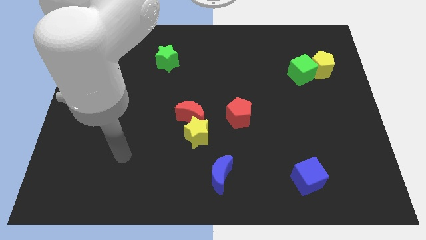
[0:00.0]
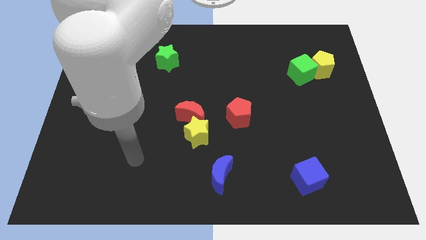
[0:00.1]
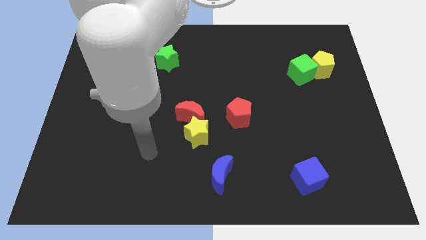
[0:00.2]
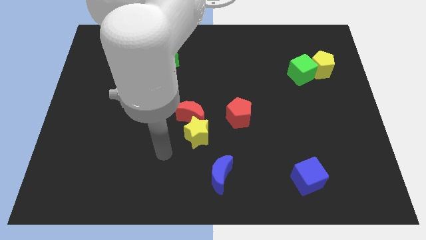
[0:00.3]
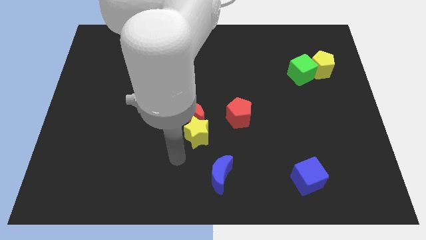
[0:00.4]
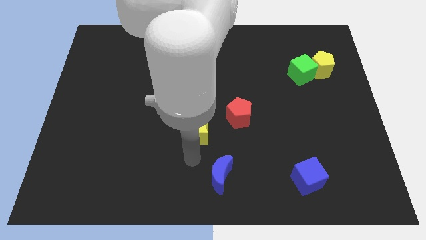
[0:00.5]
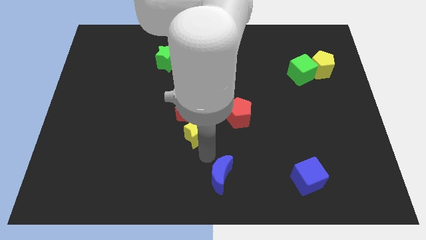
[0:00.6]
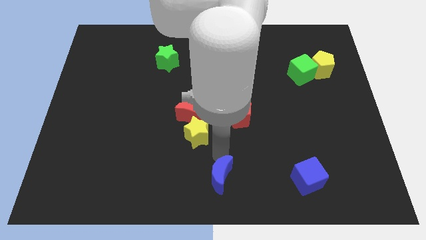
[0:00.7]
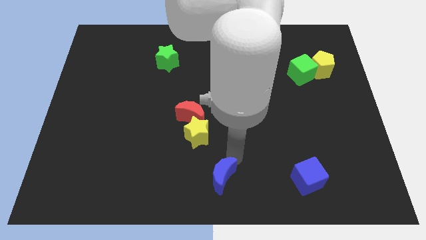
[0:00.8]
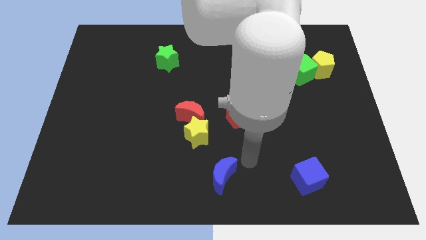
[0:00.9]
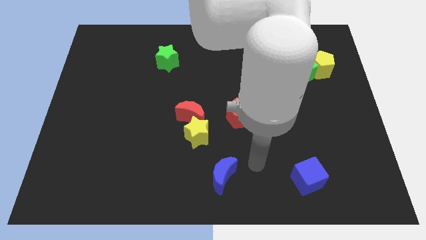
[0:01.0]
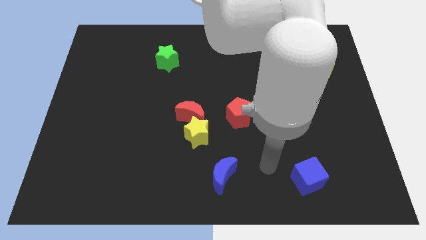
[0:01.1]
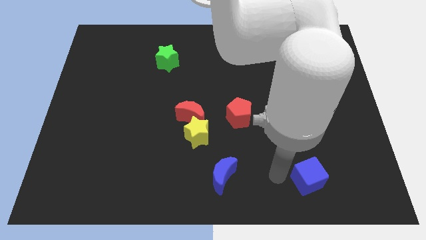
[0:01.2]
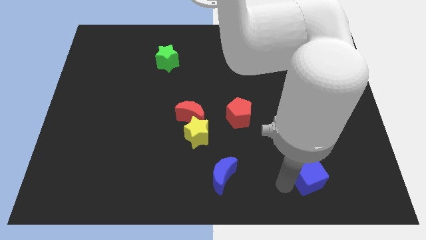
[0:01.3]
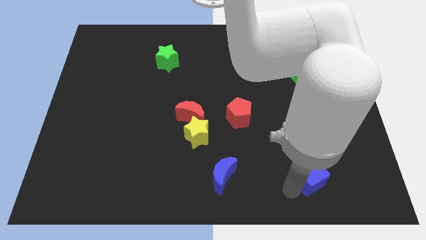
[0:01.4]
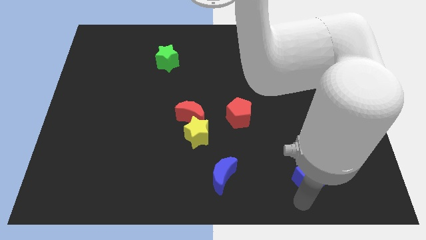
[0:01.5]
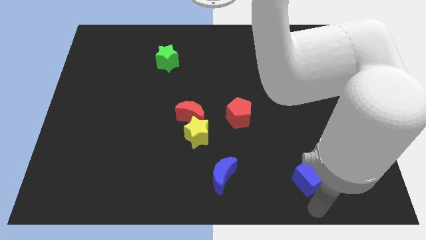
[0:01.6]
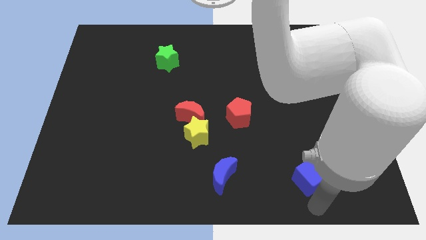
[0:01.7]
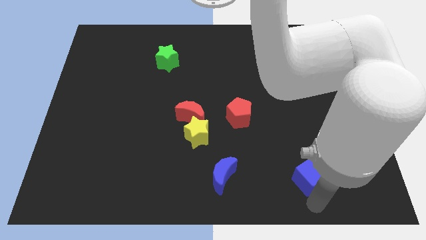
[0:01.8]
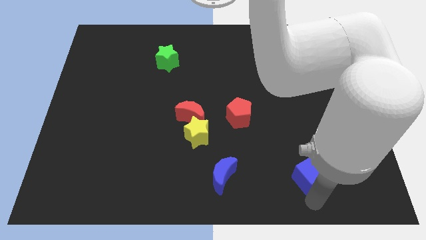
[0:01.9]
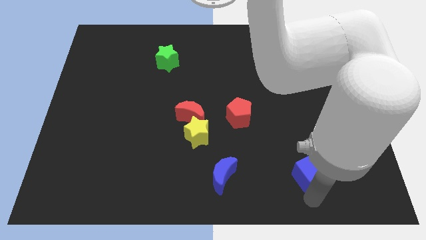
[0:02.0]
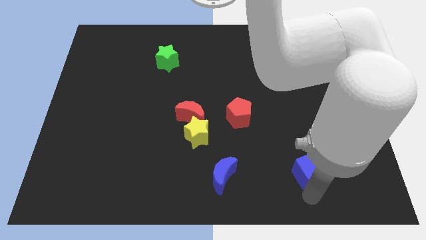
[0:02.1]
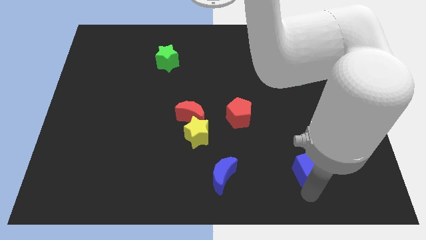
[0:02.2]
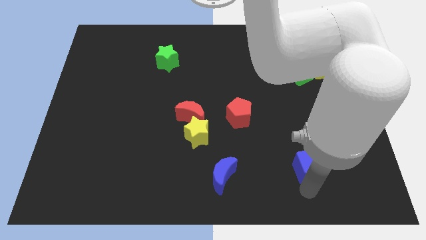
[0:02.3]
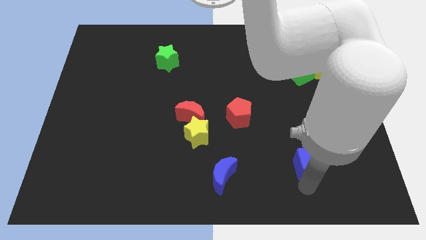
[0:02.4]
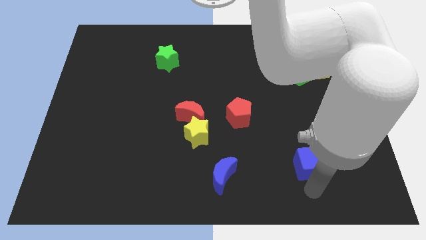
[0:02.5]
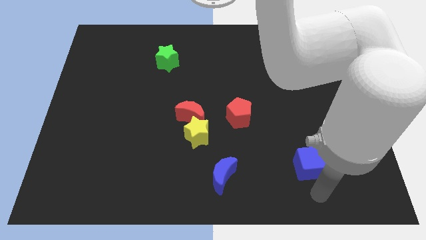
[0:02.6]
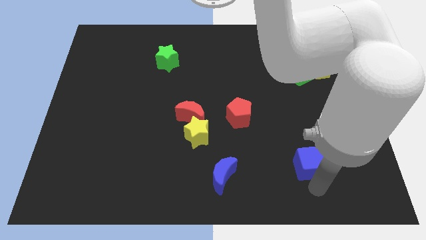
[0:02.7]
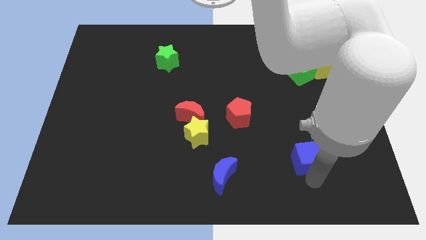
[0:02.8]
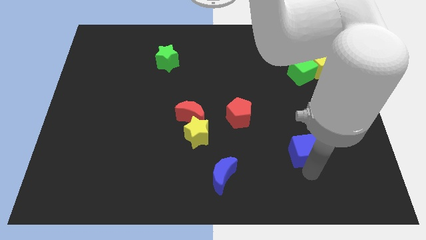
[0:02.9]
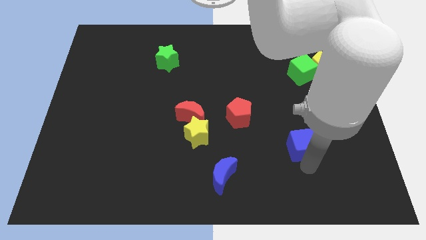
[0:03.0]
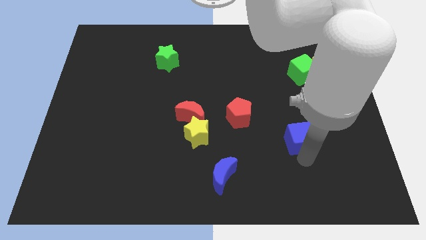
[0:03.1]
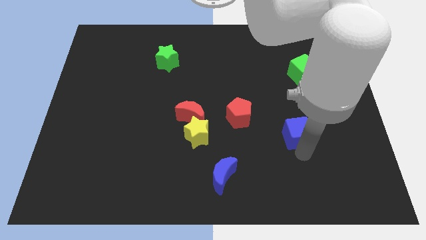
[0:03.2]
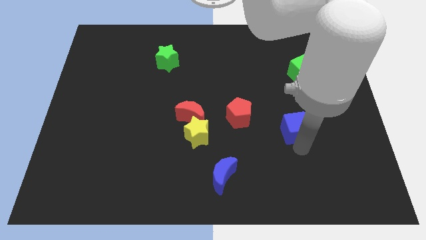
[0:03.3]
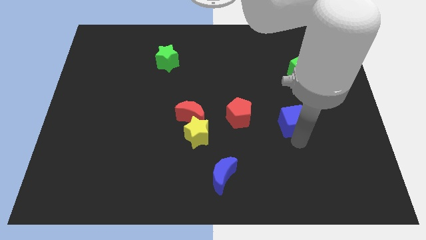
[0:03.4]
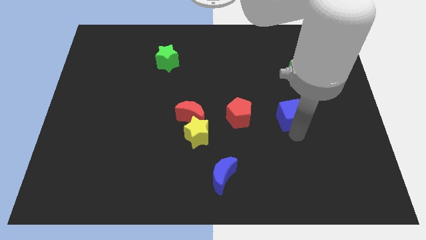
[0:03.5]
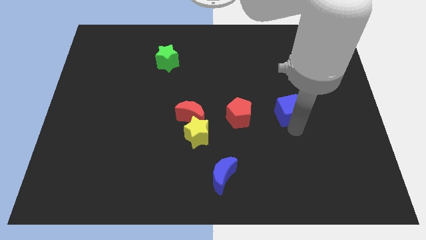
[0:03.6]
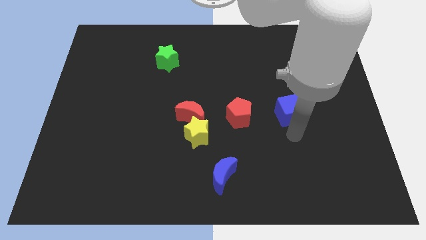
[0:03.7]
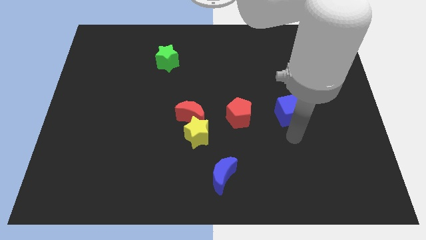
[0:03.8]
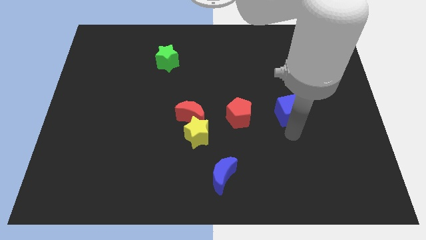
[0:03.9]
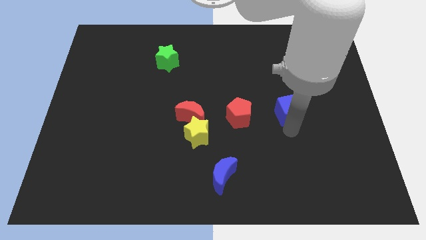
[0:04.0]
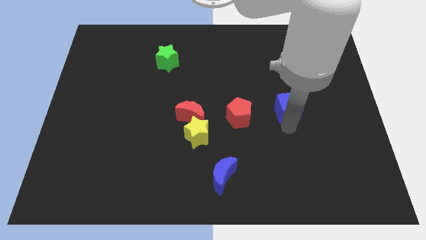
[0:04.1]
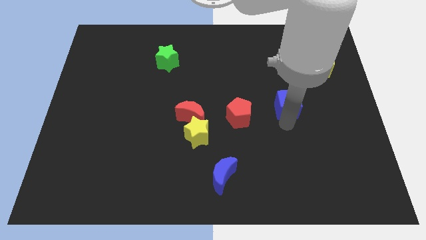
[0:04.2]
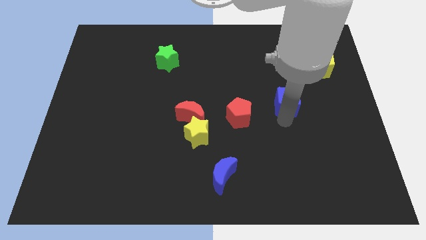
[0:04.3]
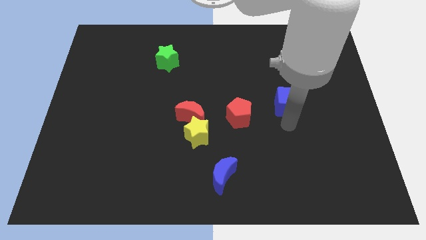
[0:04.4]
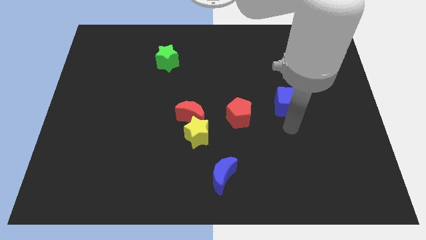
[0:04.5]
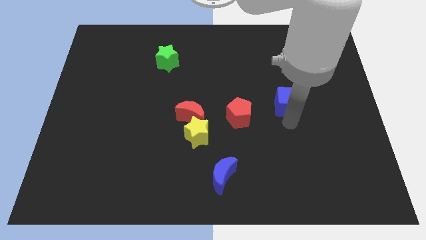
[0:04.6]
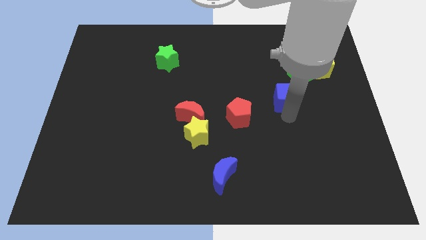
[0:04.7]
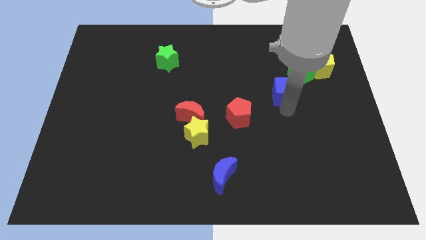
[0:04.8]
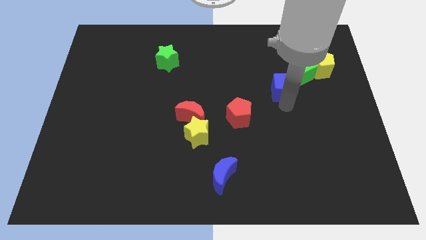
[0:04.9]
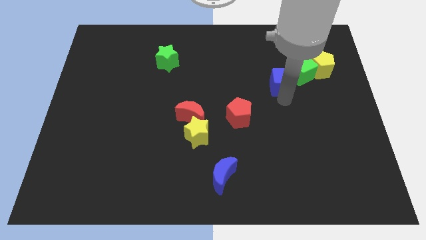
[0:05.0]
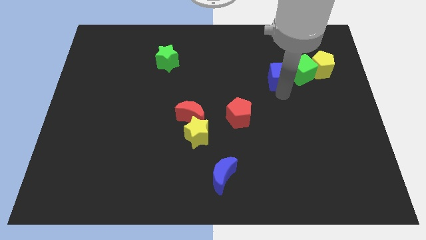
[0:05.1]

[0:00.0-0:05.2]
push the blue cube to the left side of the yellow pentagon
